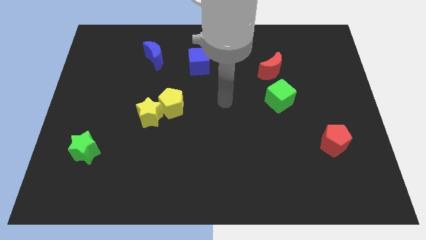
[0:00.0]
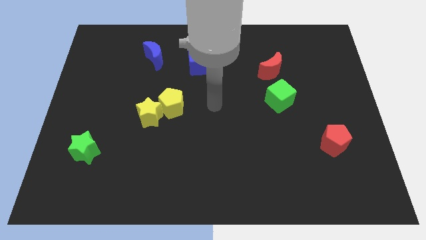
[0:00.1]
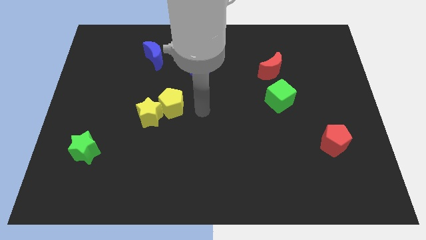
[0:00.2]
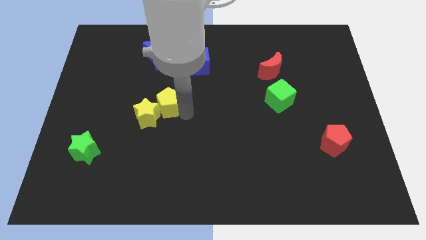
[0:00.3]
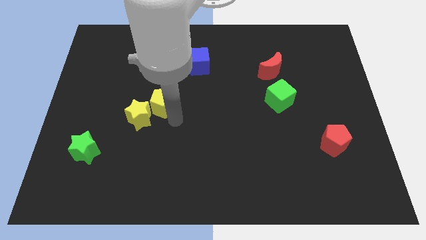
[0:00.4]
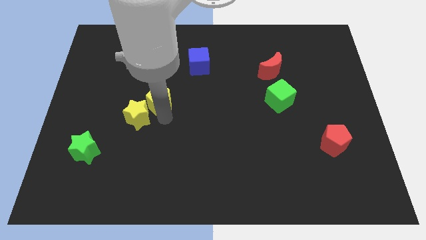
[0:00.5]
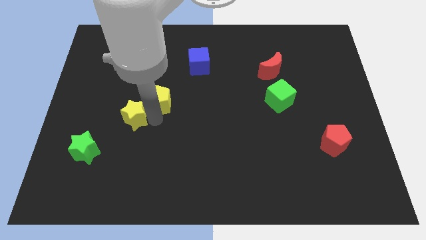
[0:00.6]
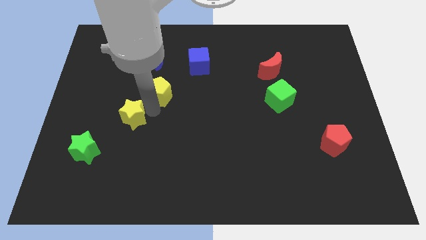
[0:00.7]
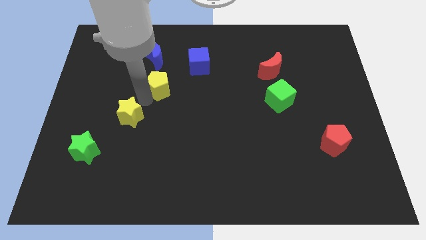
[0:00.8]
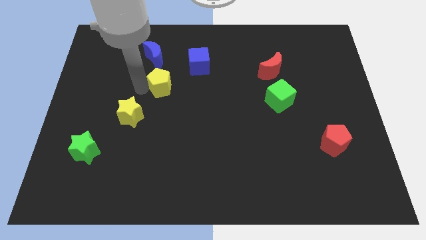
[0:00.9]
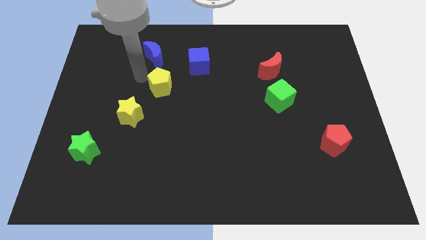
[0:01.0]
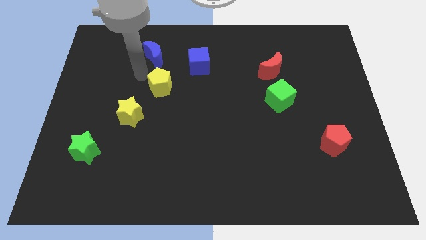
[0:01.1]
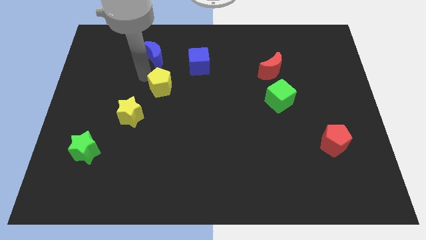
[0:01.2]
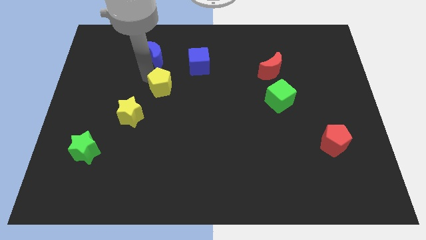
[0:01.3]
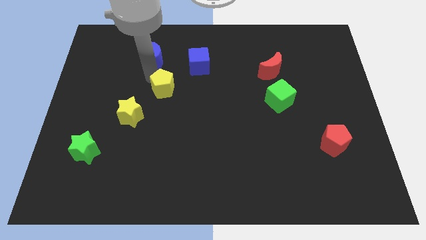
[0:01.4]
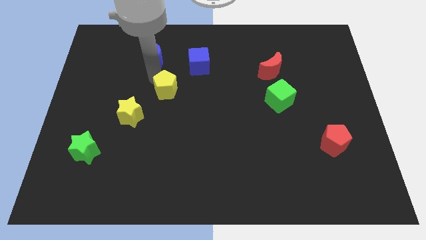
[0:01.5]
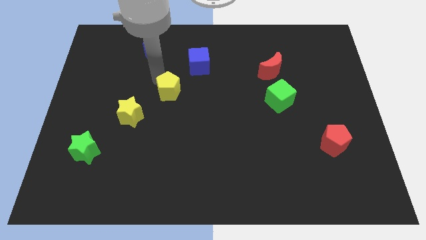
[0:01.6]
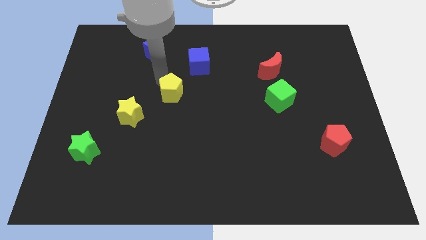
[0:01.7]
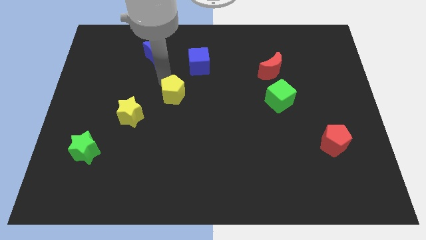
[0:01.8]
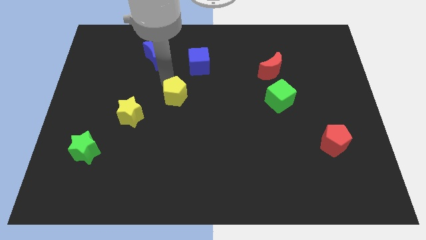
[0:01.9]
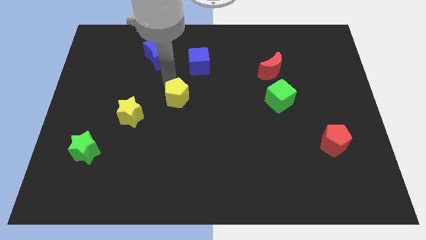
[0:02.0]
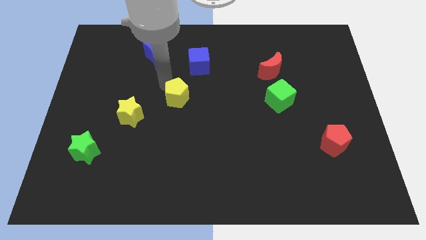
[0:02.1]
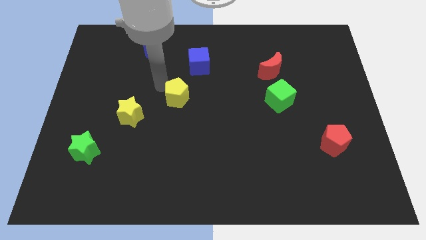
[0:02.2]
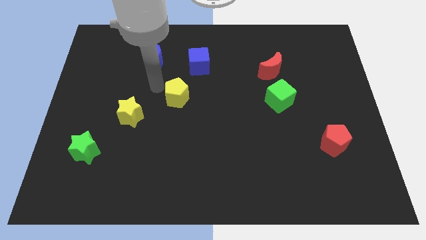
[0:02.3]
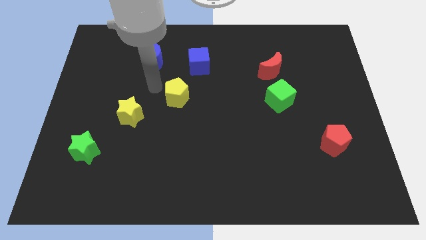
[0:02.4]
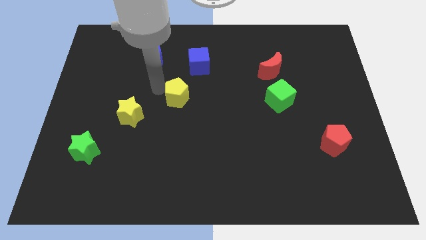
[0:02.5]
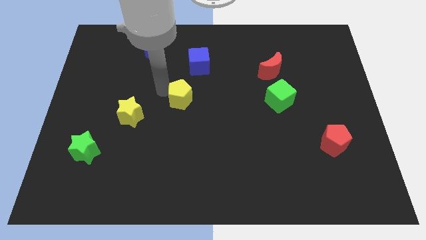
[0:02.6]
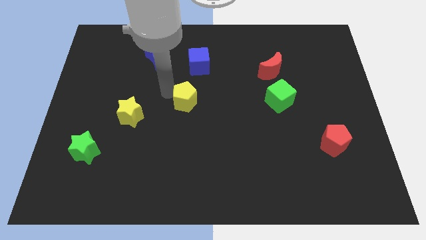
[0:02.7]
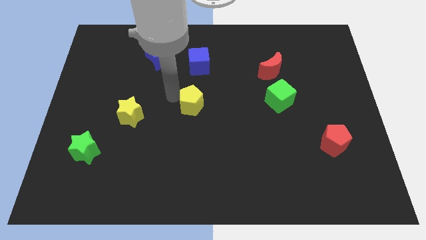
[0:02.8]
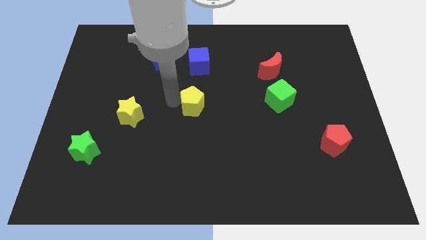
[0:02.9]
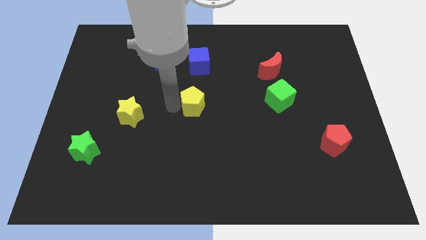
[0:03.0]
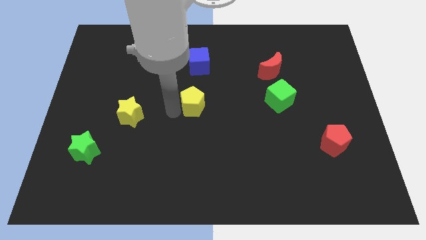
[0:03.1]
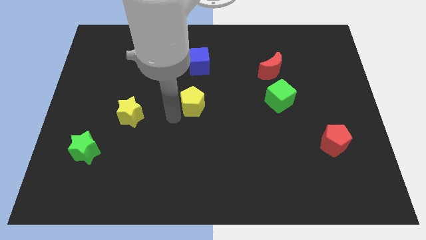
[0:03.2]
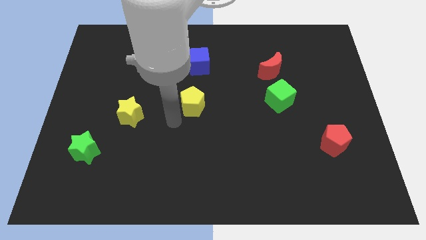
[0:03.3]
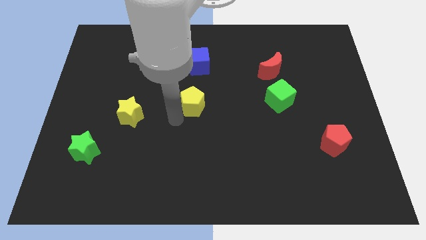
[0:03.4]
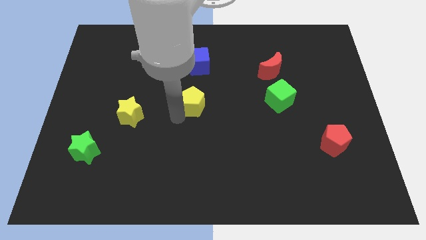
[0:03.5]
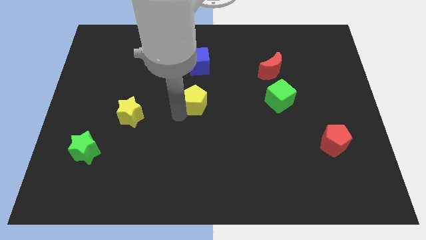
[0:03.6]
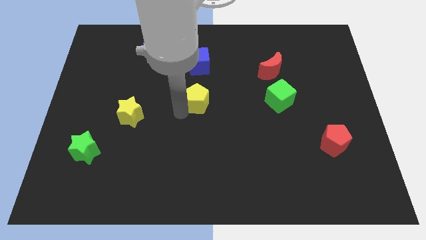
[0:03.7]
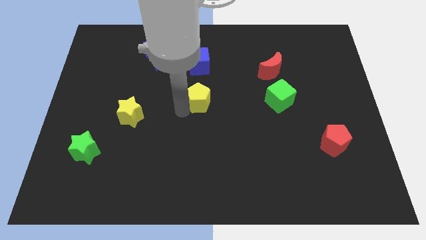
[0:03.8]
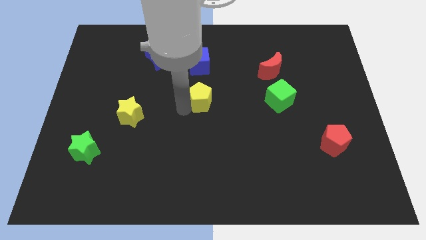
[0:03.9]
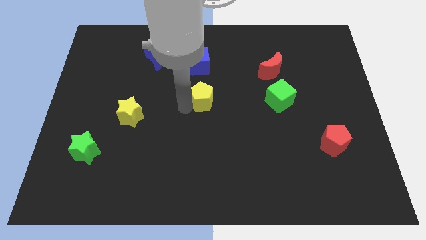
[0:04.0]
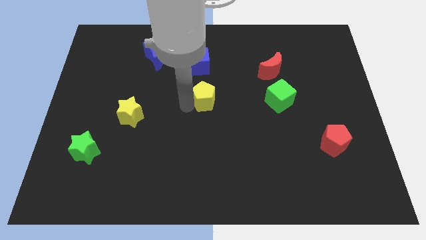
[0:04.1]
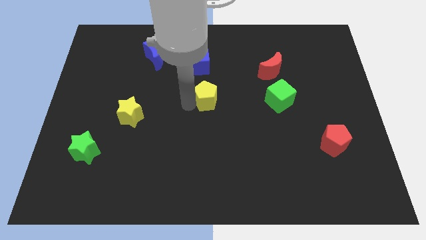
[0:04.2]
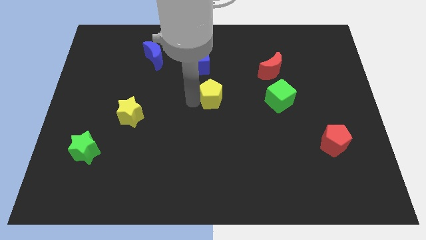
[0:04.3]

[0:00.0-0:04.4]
slightly move the yellow pentagon upwards and then right

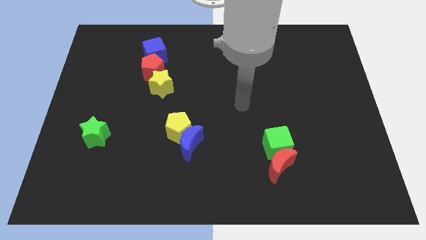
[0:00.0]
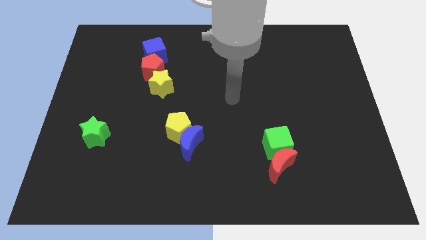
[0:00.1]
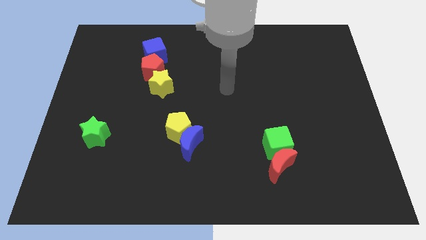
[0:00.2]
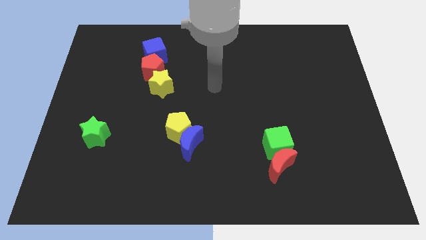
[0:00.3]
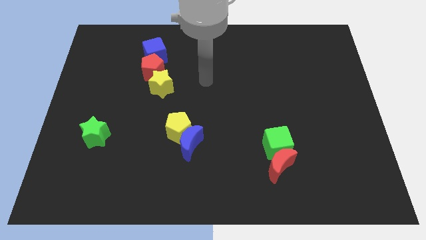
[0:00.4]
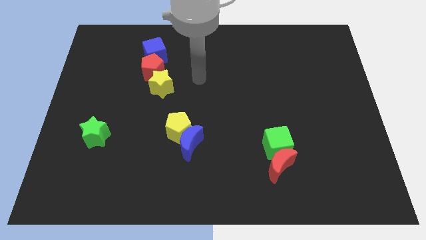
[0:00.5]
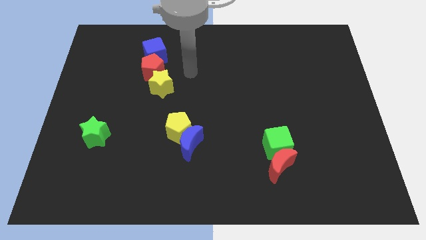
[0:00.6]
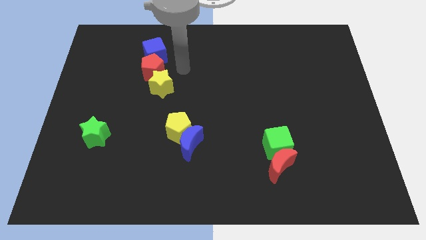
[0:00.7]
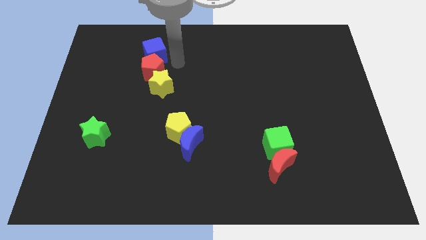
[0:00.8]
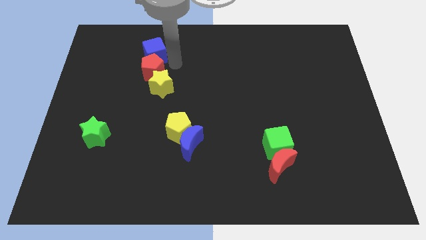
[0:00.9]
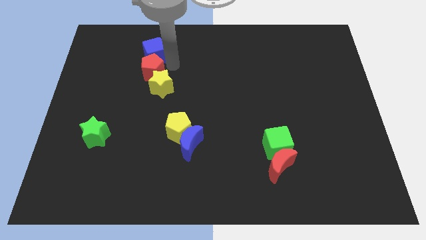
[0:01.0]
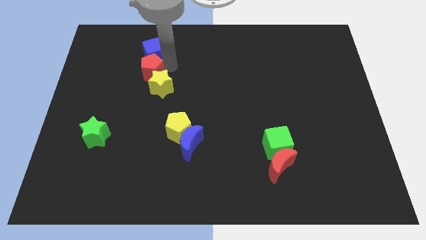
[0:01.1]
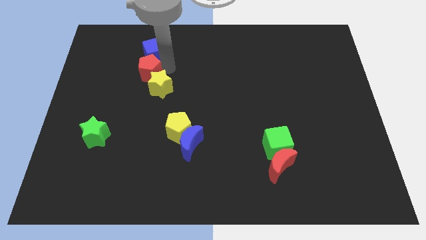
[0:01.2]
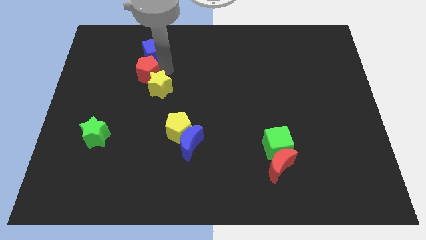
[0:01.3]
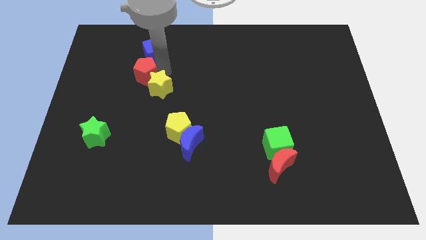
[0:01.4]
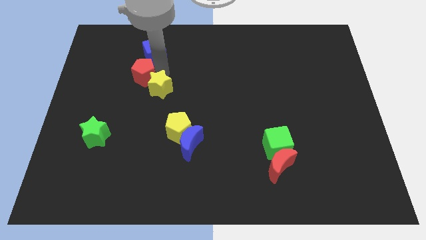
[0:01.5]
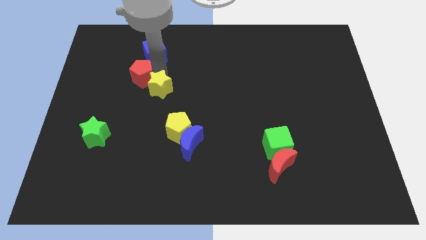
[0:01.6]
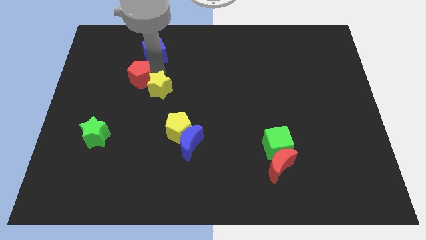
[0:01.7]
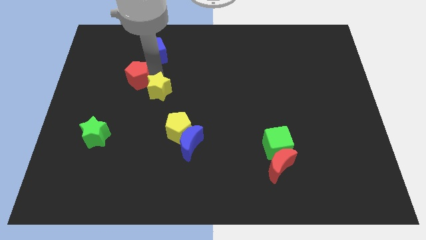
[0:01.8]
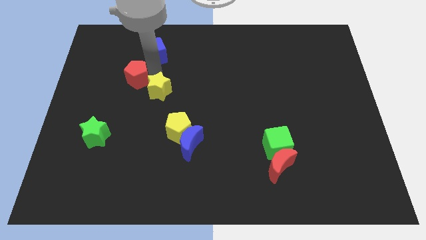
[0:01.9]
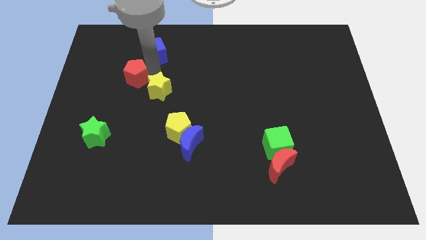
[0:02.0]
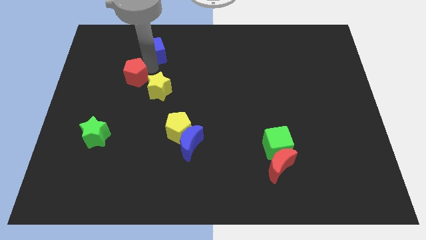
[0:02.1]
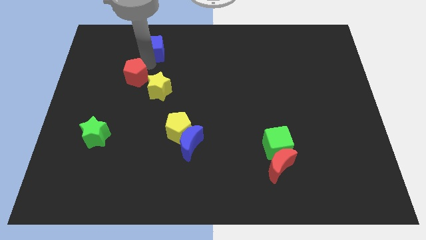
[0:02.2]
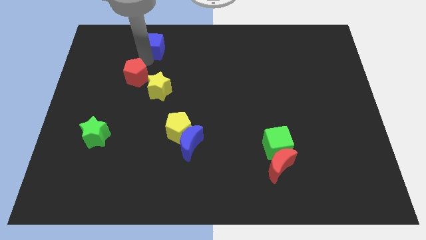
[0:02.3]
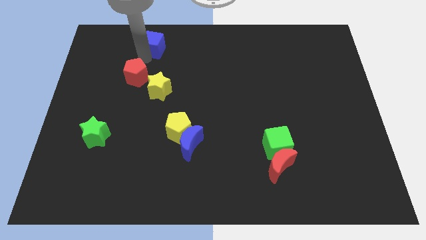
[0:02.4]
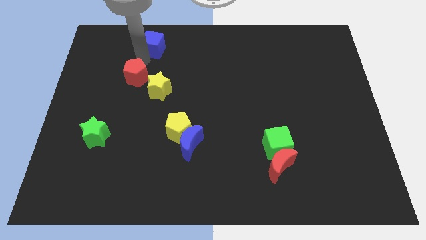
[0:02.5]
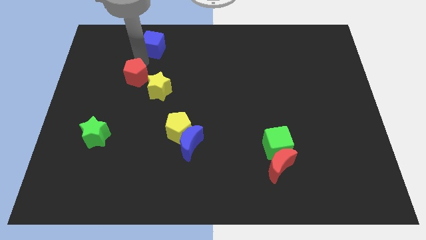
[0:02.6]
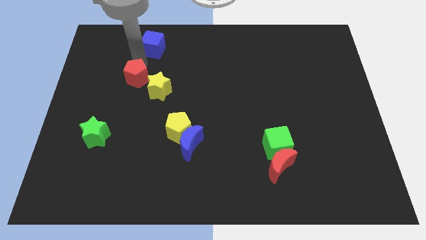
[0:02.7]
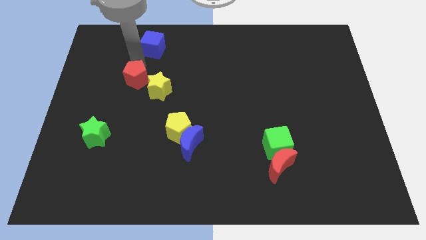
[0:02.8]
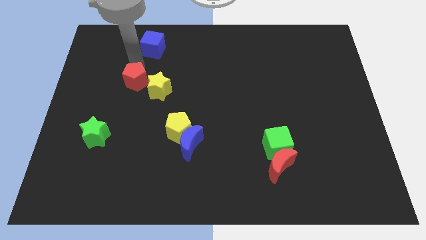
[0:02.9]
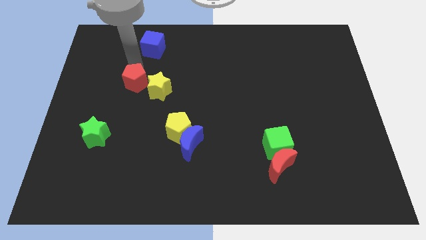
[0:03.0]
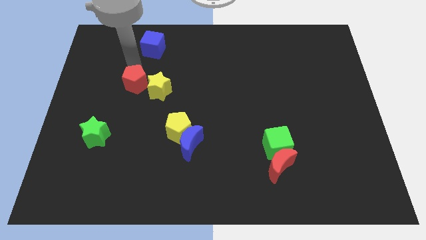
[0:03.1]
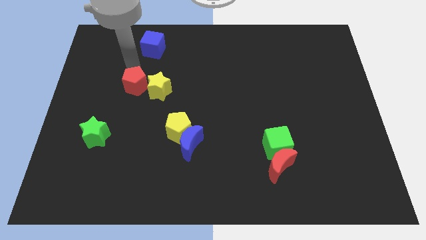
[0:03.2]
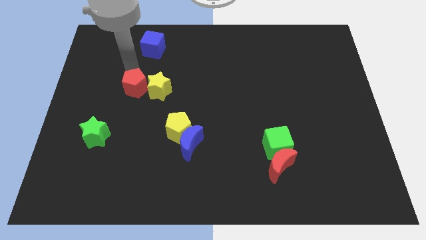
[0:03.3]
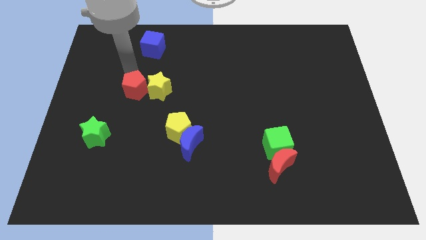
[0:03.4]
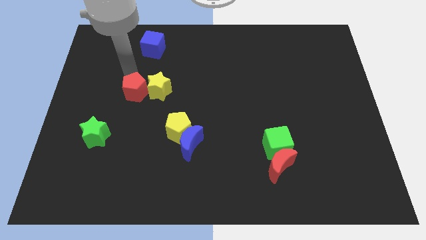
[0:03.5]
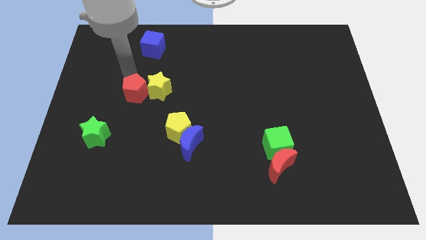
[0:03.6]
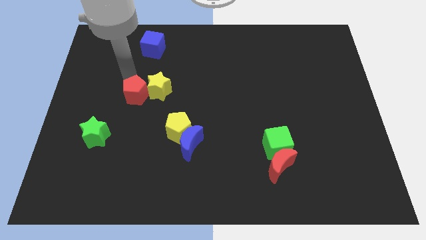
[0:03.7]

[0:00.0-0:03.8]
move the red pentagon a little bit downwards
